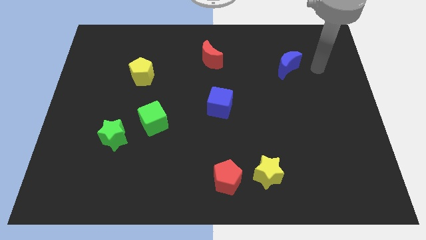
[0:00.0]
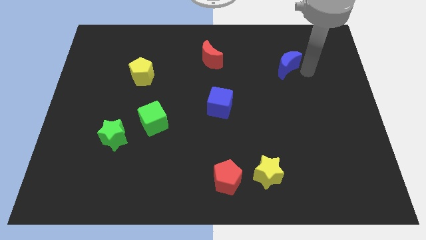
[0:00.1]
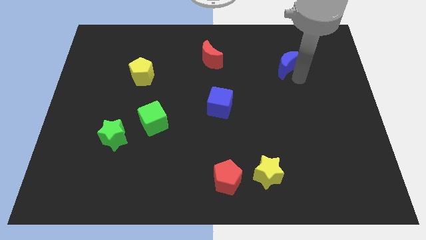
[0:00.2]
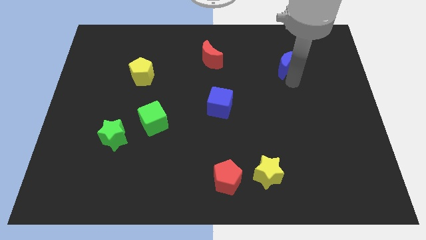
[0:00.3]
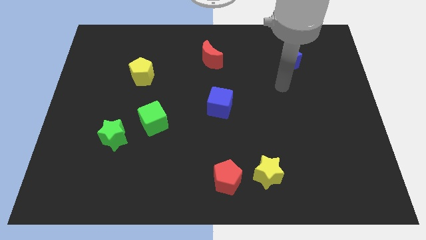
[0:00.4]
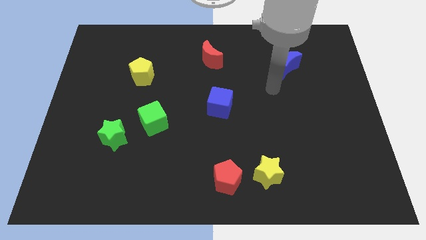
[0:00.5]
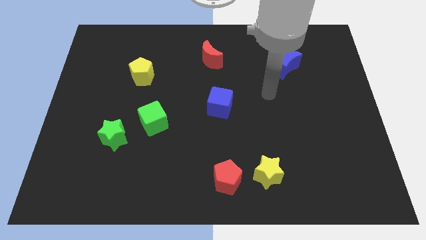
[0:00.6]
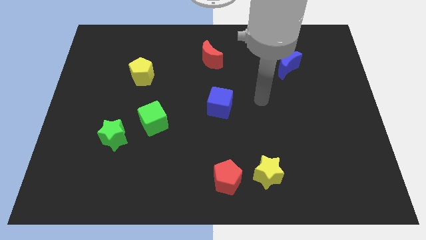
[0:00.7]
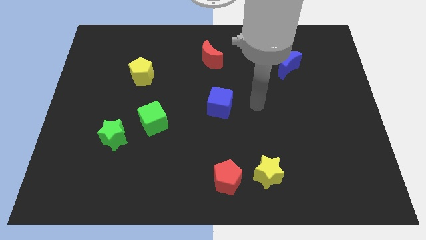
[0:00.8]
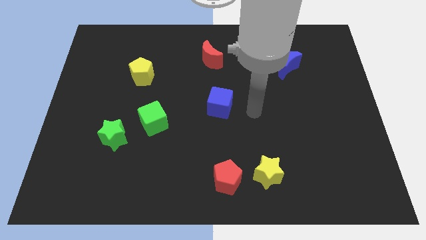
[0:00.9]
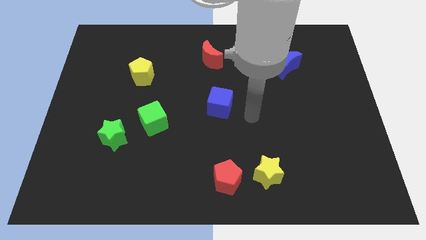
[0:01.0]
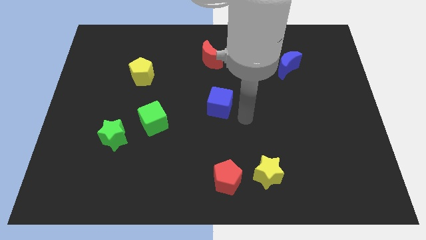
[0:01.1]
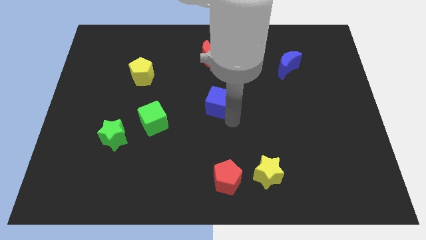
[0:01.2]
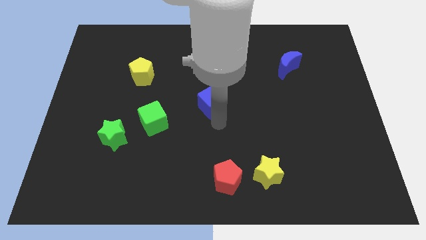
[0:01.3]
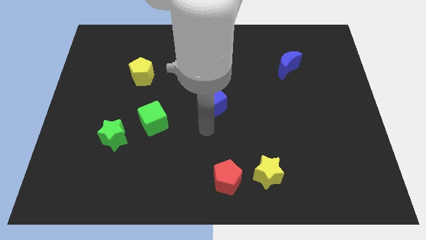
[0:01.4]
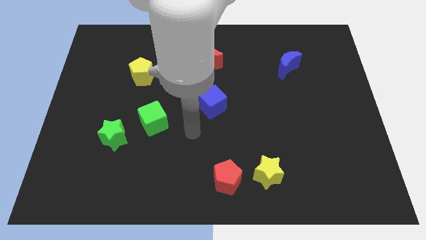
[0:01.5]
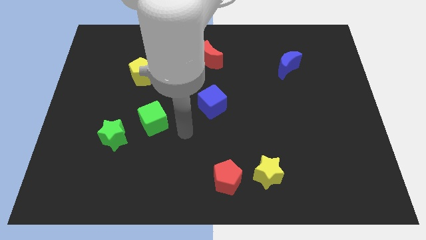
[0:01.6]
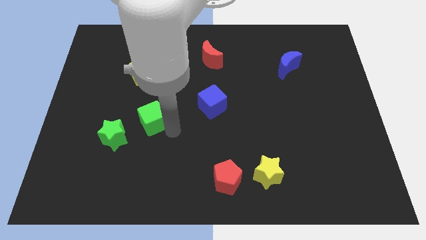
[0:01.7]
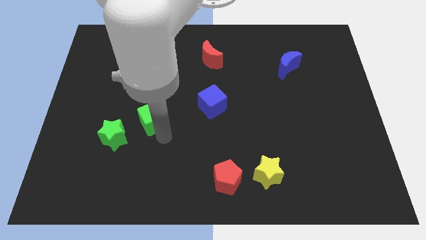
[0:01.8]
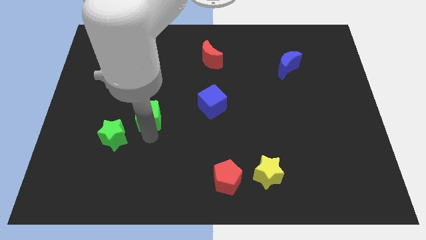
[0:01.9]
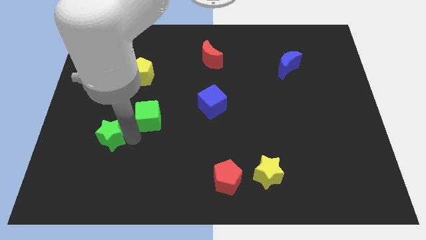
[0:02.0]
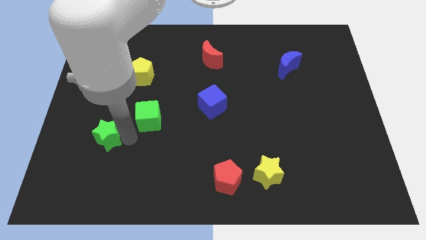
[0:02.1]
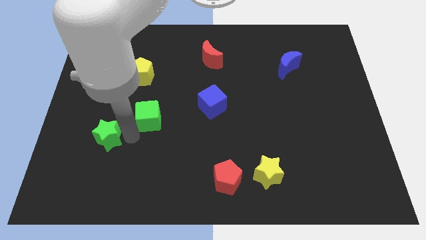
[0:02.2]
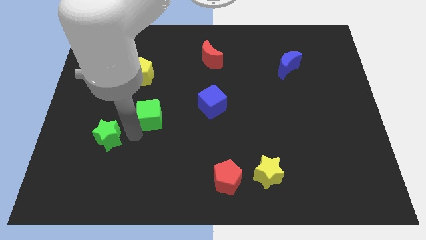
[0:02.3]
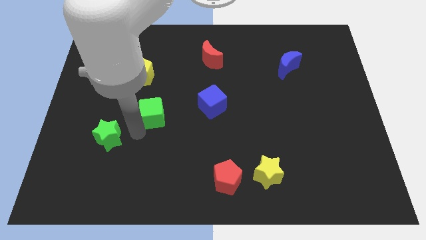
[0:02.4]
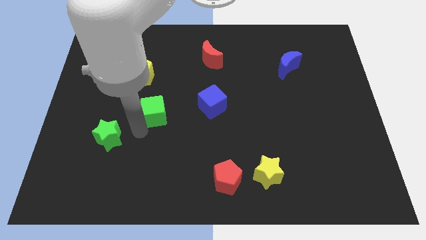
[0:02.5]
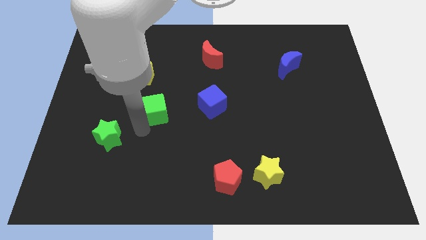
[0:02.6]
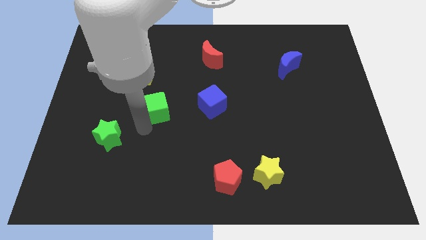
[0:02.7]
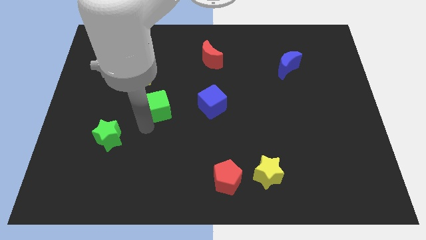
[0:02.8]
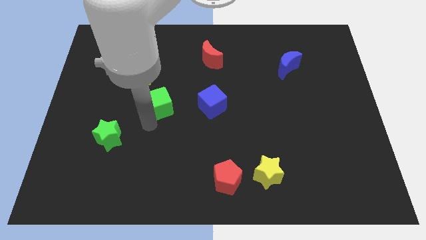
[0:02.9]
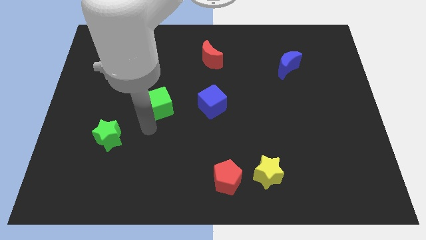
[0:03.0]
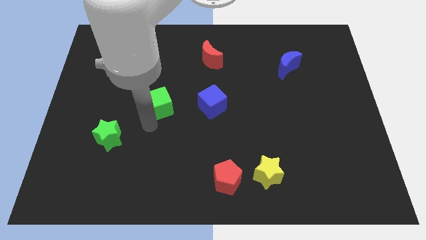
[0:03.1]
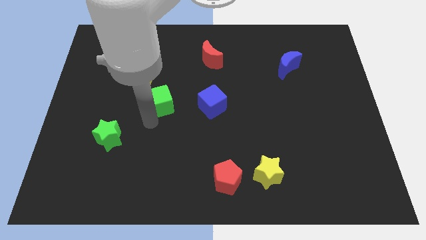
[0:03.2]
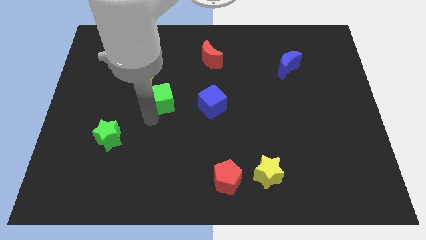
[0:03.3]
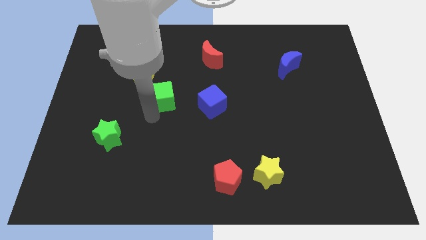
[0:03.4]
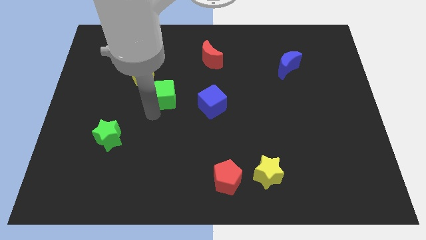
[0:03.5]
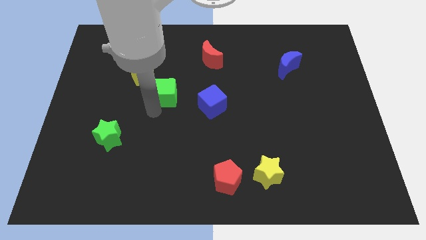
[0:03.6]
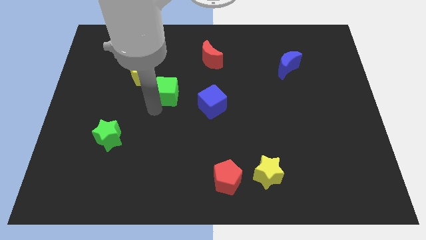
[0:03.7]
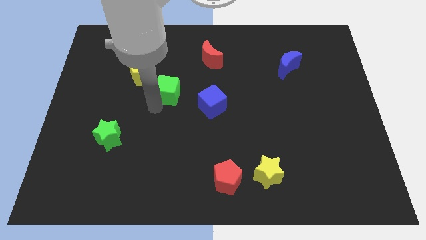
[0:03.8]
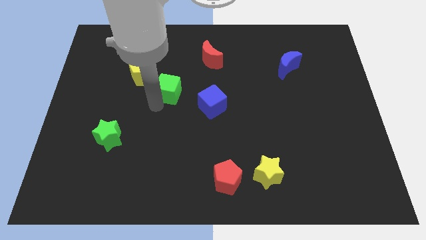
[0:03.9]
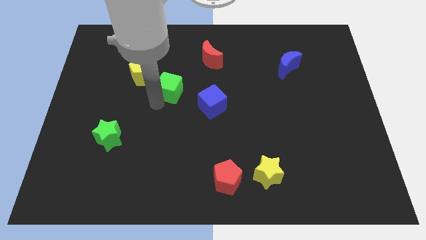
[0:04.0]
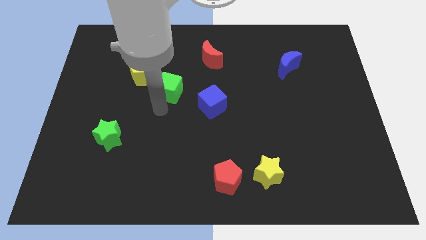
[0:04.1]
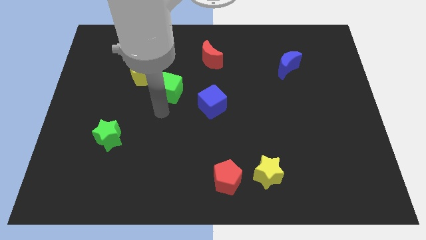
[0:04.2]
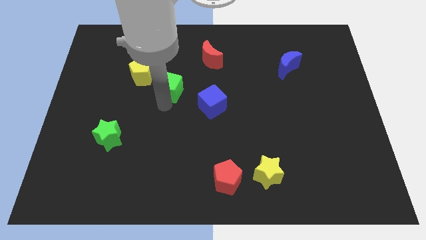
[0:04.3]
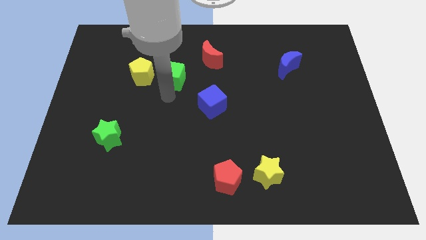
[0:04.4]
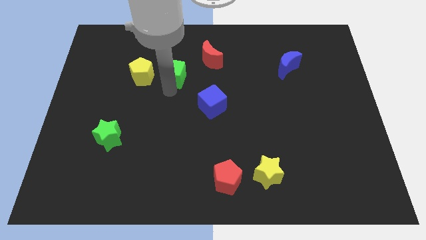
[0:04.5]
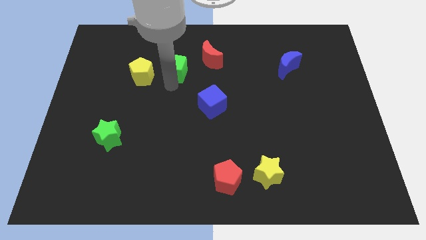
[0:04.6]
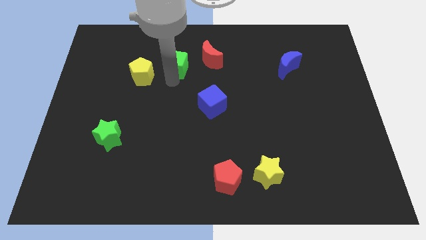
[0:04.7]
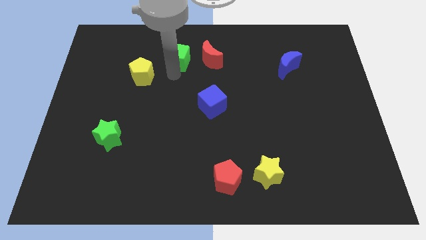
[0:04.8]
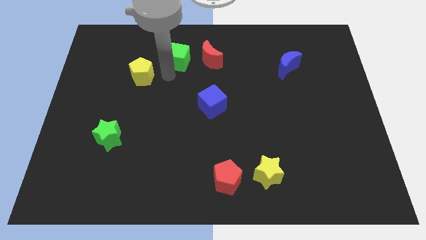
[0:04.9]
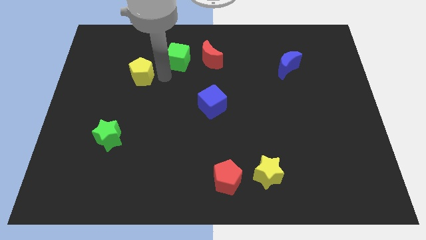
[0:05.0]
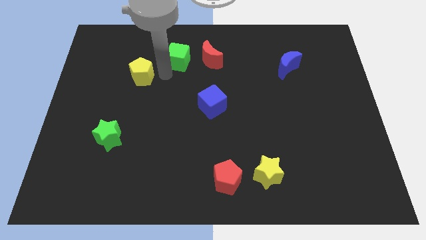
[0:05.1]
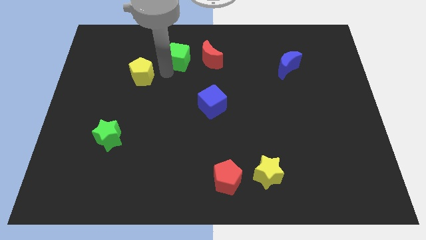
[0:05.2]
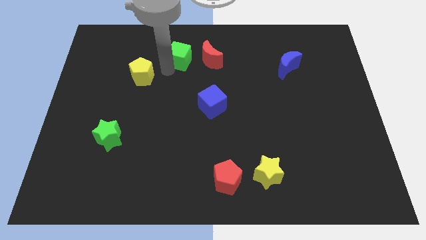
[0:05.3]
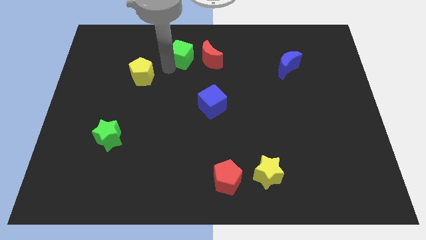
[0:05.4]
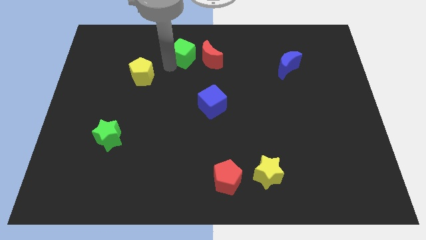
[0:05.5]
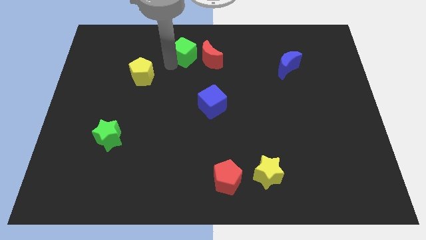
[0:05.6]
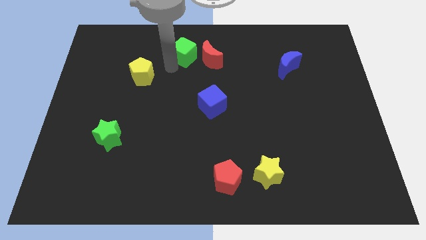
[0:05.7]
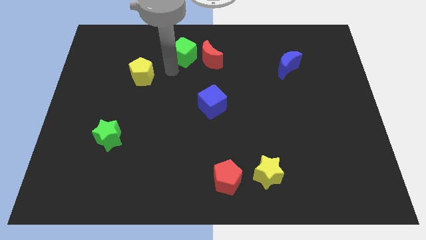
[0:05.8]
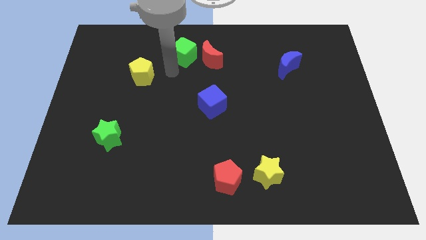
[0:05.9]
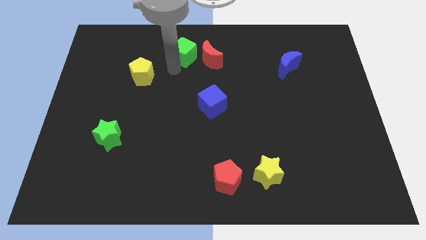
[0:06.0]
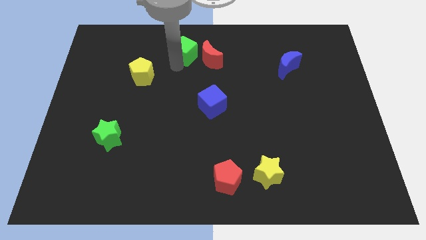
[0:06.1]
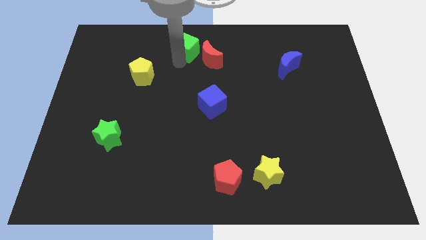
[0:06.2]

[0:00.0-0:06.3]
slide the green cube to the towards your base

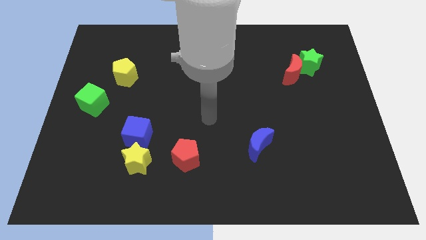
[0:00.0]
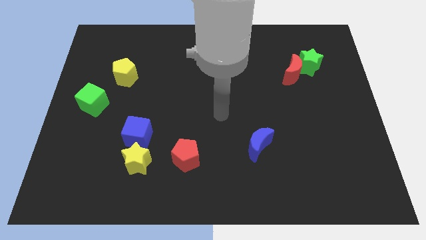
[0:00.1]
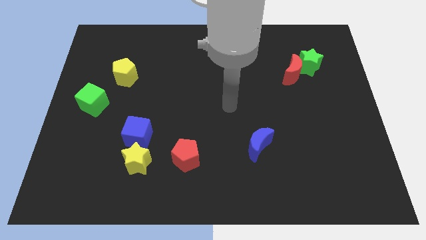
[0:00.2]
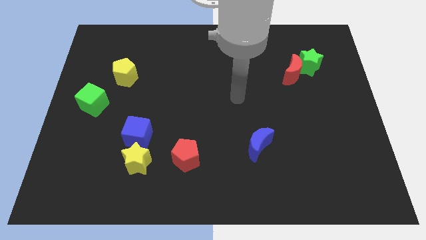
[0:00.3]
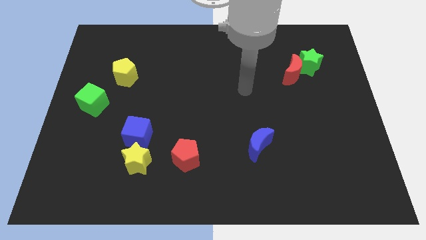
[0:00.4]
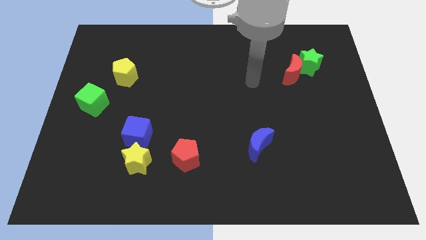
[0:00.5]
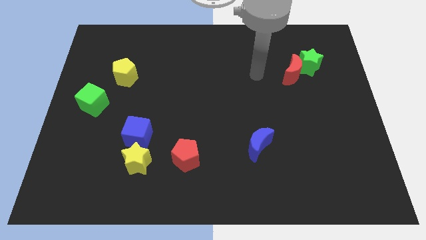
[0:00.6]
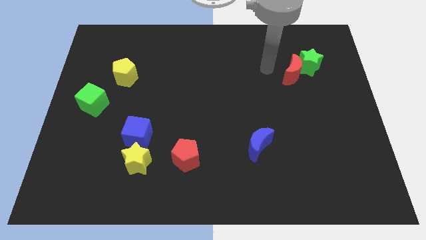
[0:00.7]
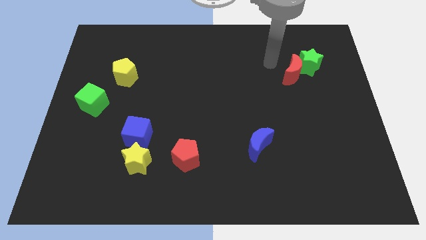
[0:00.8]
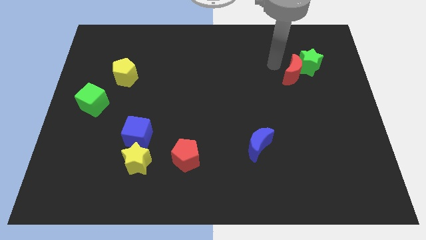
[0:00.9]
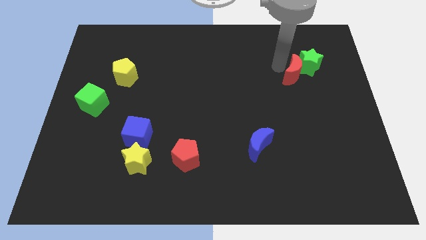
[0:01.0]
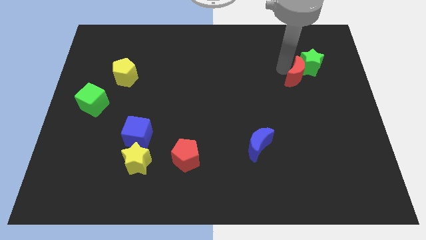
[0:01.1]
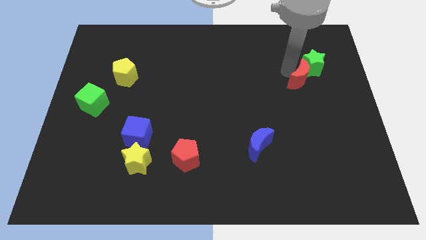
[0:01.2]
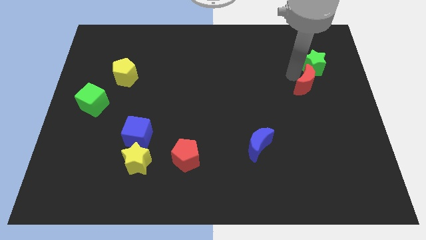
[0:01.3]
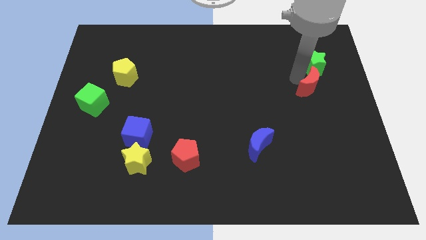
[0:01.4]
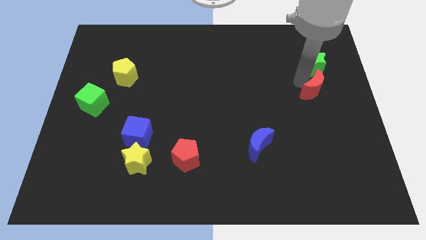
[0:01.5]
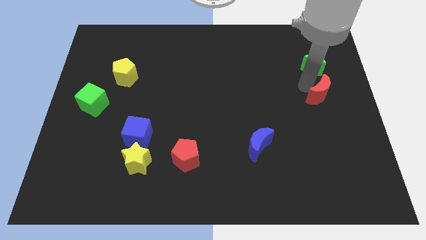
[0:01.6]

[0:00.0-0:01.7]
slide the red moon to the right side of the board
